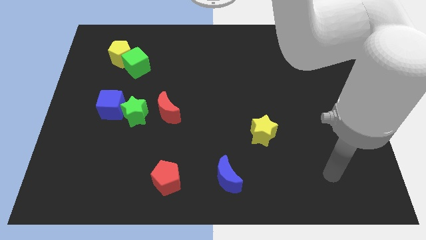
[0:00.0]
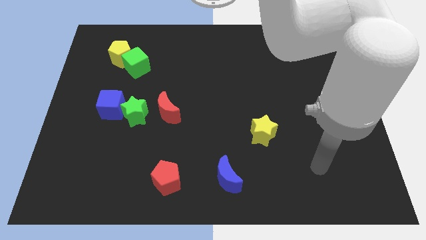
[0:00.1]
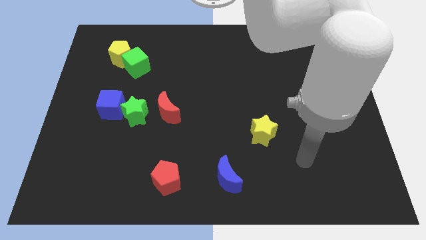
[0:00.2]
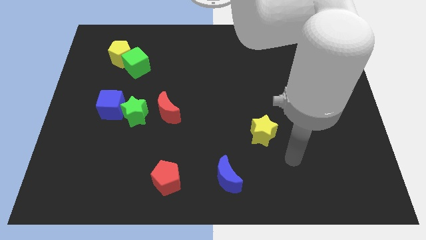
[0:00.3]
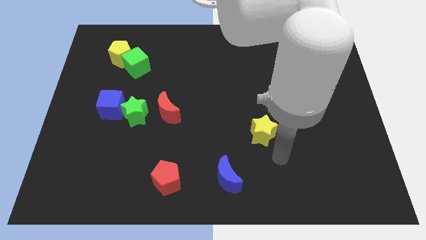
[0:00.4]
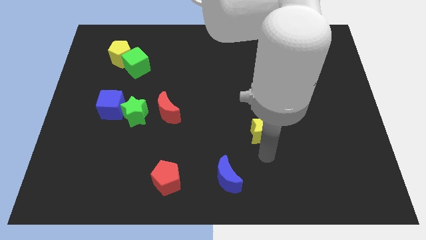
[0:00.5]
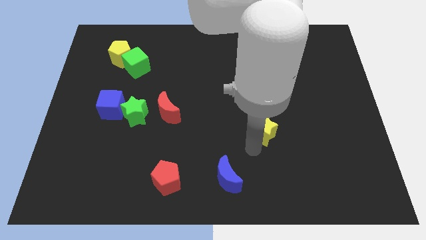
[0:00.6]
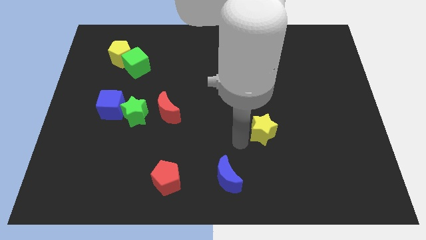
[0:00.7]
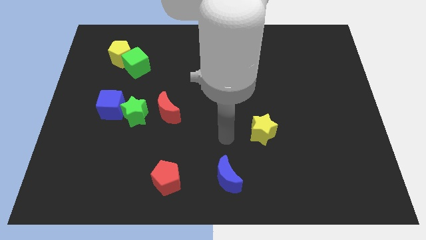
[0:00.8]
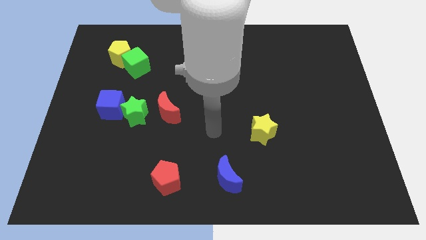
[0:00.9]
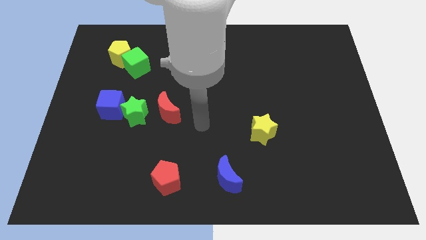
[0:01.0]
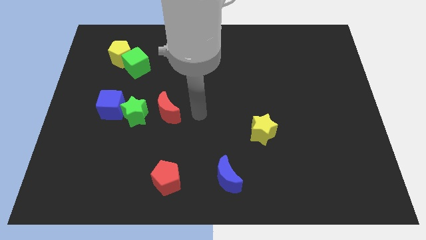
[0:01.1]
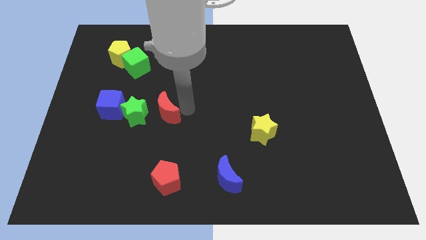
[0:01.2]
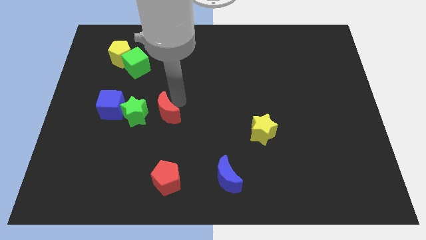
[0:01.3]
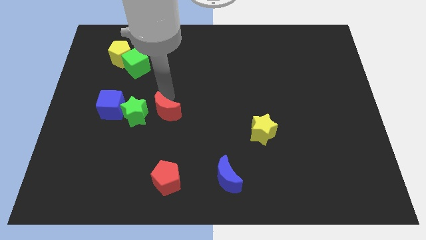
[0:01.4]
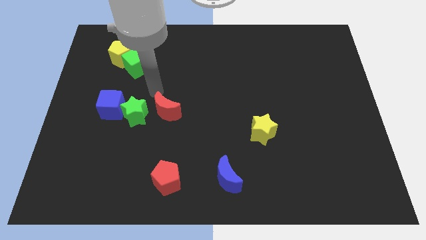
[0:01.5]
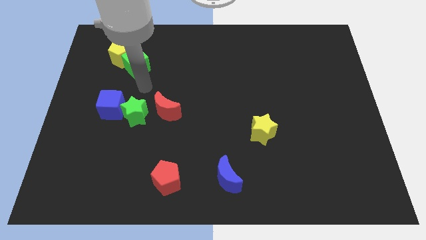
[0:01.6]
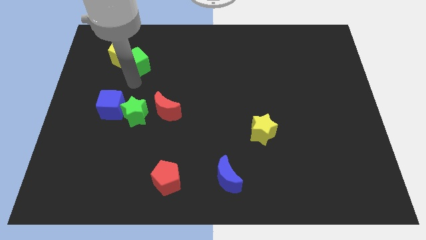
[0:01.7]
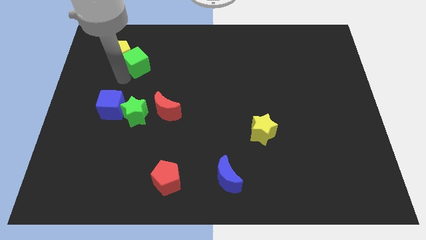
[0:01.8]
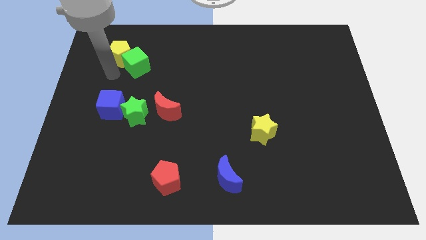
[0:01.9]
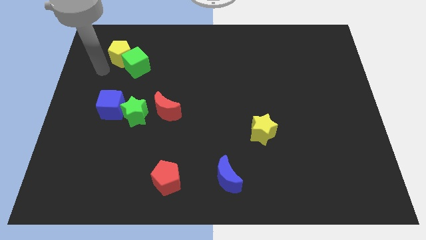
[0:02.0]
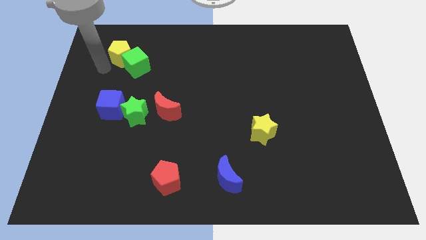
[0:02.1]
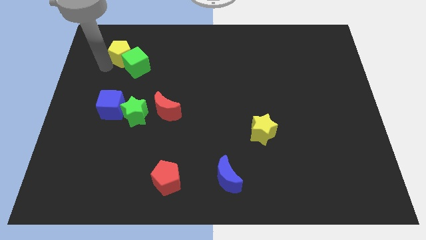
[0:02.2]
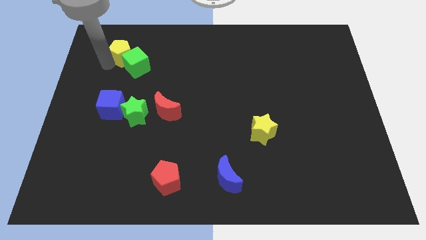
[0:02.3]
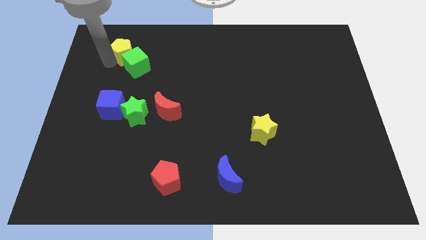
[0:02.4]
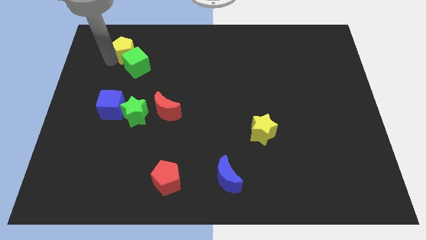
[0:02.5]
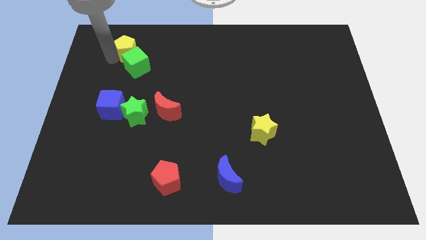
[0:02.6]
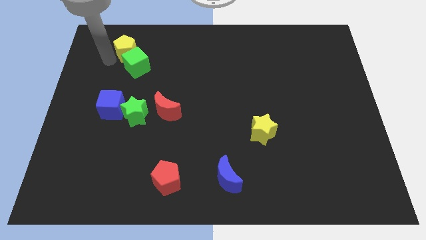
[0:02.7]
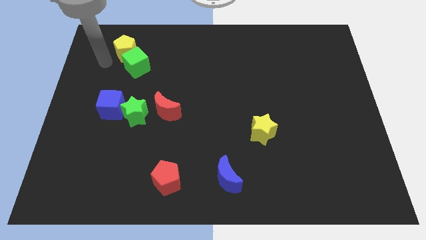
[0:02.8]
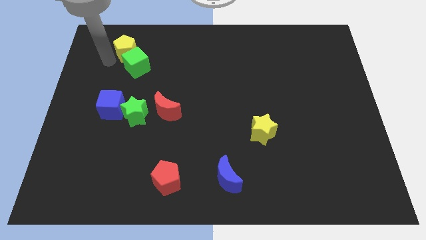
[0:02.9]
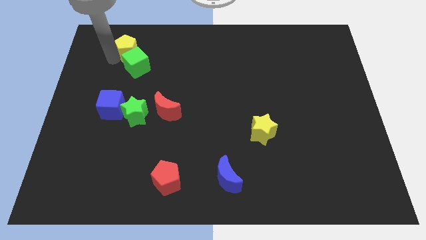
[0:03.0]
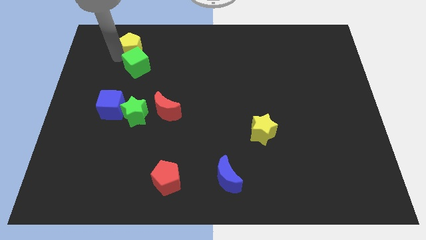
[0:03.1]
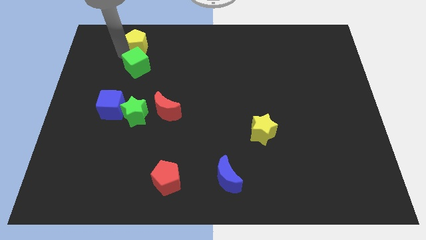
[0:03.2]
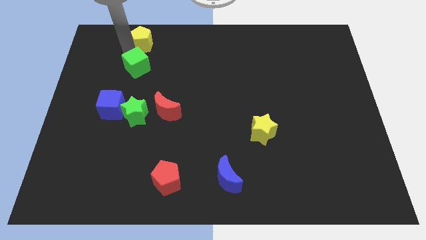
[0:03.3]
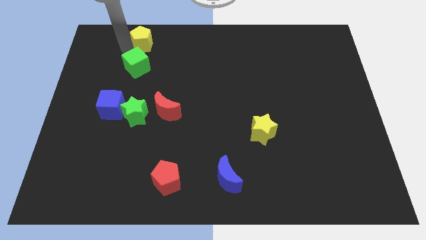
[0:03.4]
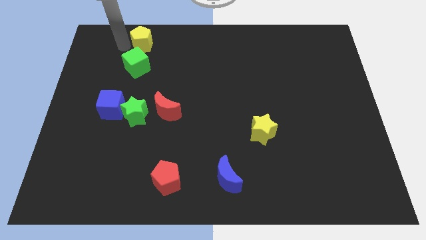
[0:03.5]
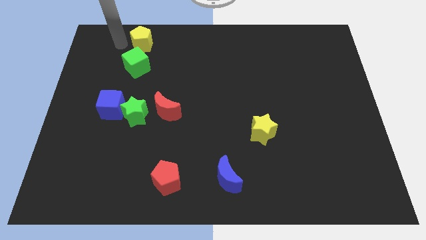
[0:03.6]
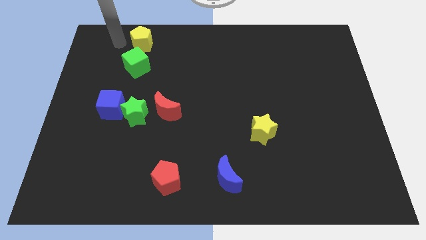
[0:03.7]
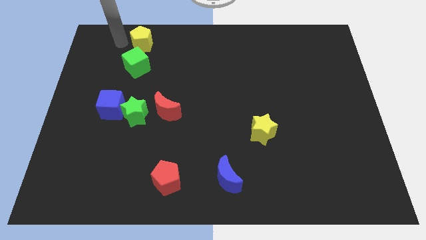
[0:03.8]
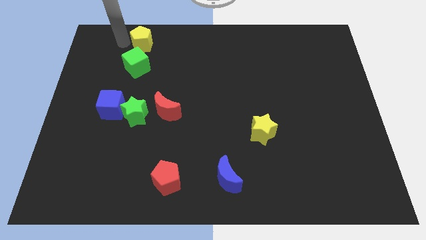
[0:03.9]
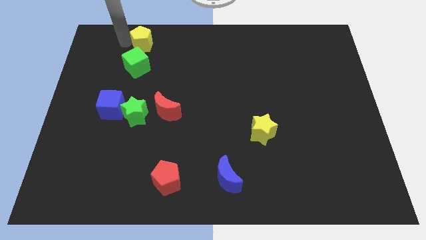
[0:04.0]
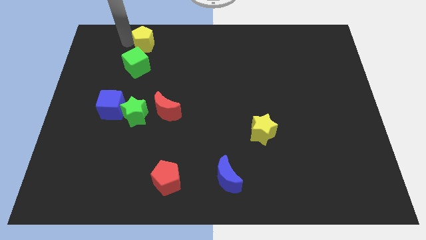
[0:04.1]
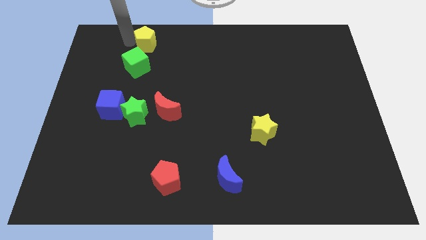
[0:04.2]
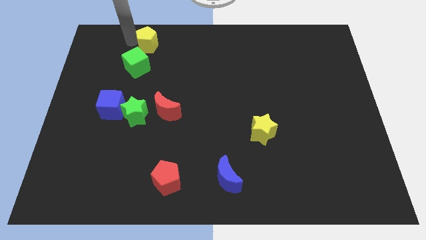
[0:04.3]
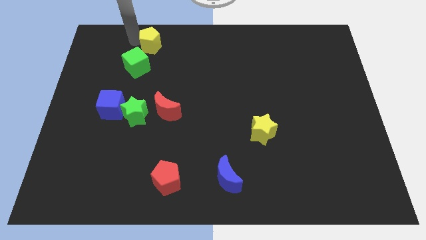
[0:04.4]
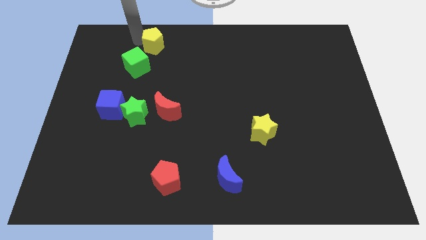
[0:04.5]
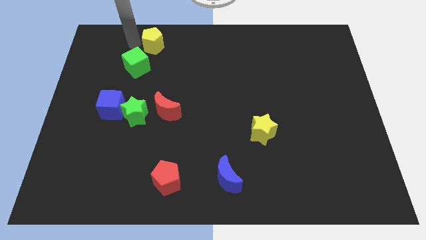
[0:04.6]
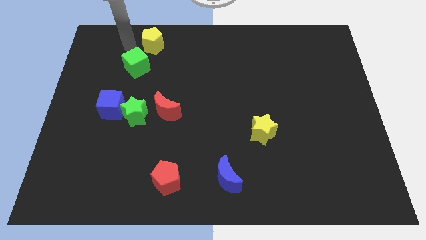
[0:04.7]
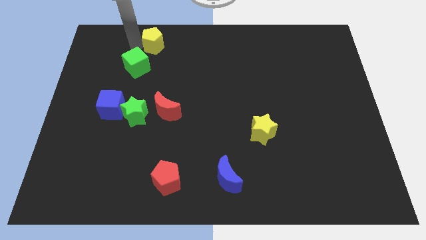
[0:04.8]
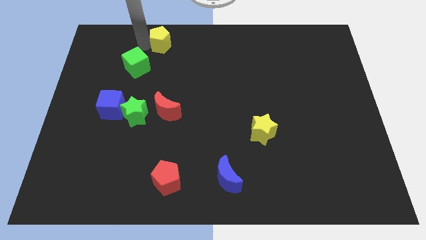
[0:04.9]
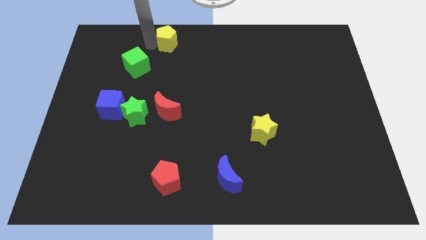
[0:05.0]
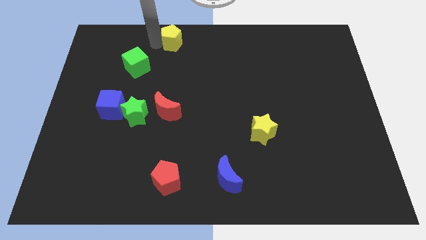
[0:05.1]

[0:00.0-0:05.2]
put the yellow pentagon to the top side

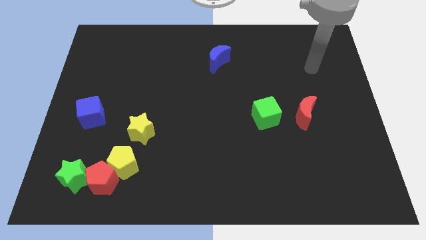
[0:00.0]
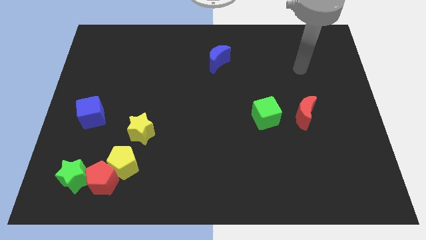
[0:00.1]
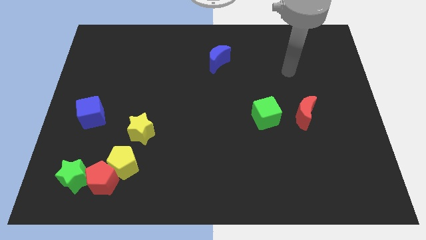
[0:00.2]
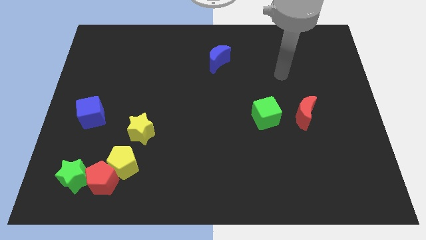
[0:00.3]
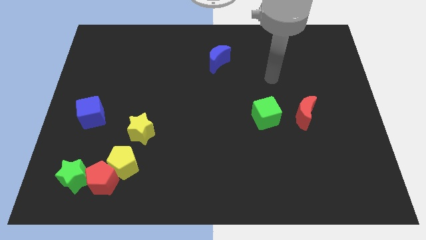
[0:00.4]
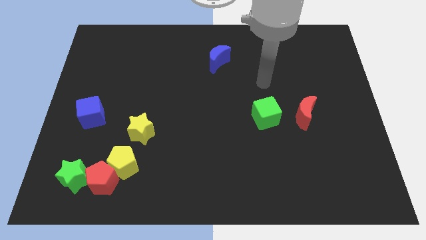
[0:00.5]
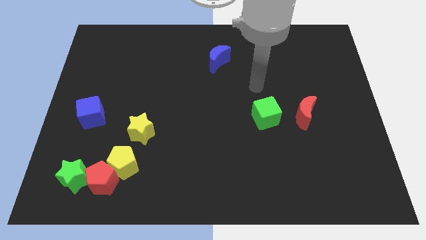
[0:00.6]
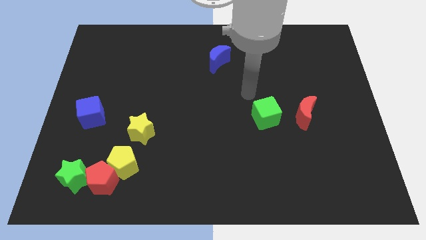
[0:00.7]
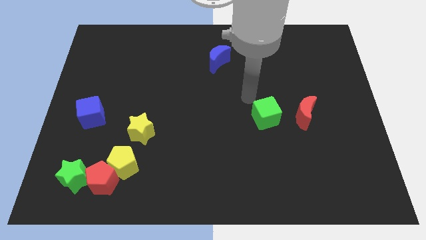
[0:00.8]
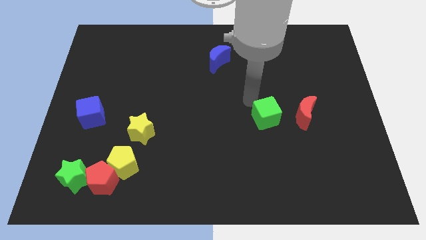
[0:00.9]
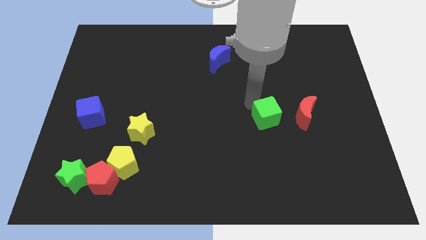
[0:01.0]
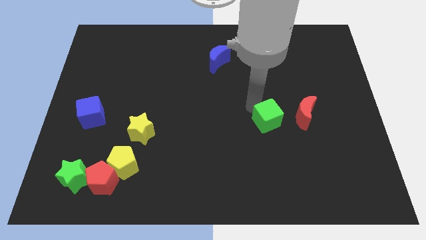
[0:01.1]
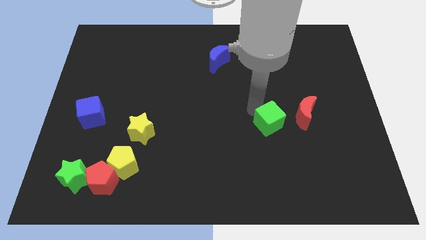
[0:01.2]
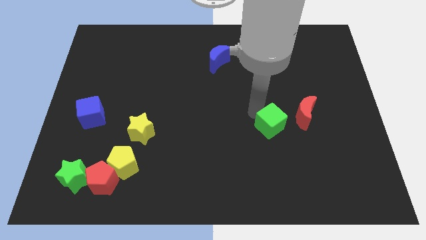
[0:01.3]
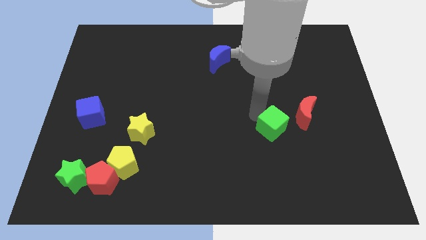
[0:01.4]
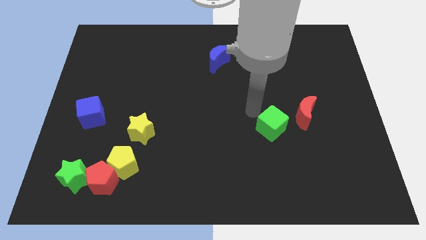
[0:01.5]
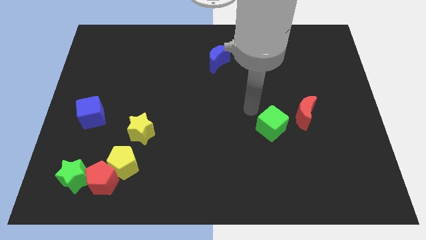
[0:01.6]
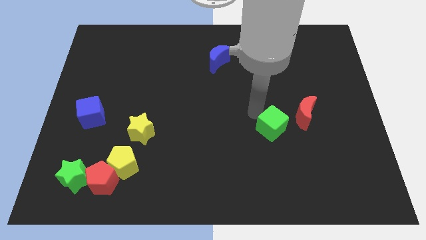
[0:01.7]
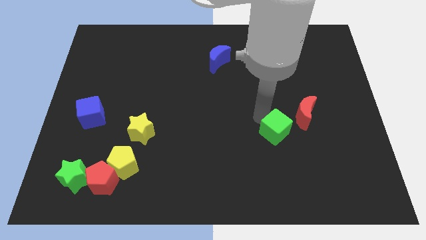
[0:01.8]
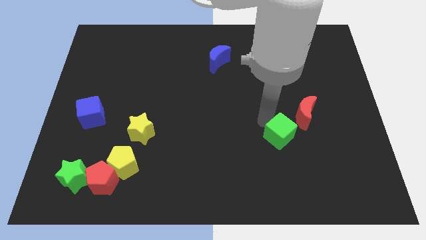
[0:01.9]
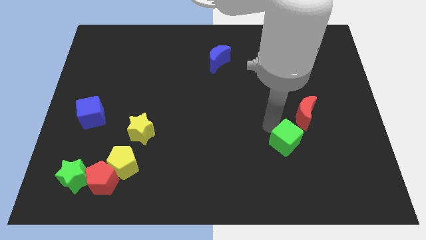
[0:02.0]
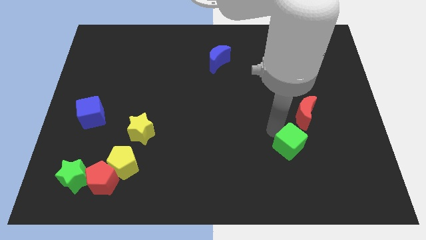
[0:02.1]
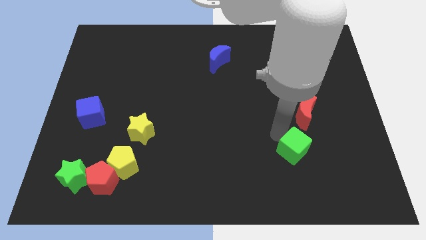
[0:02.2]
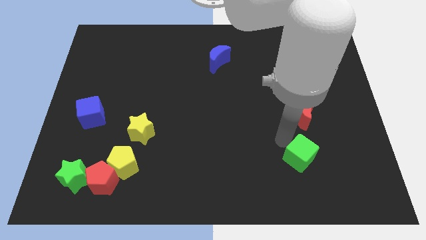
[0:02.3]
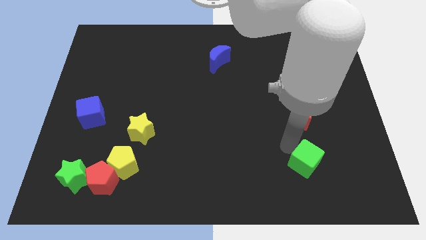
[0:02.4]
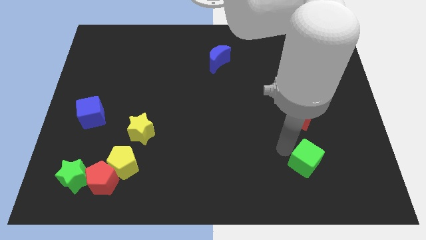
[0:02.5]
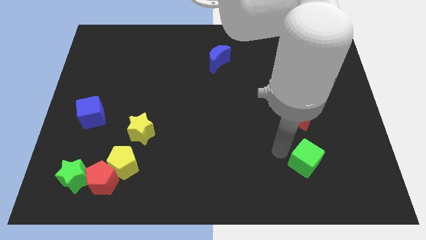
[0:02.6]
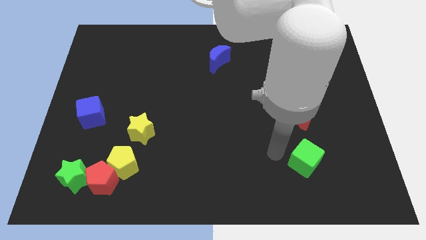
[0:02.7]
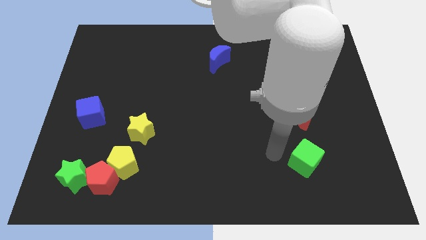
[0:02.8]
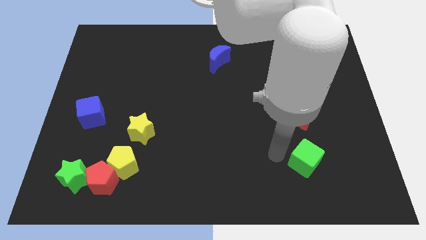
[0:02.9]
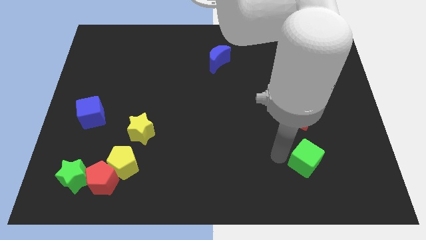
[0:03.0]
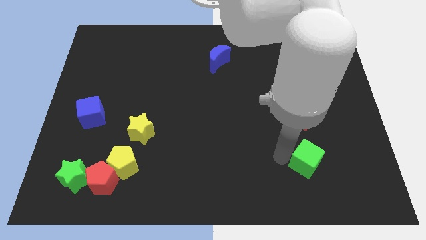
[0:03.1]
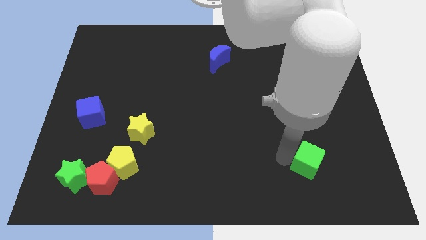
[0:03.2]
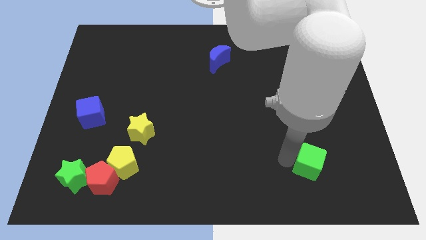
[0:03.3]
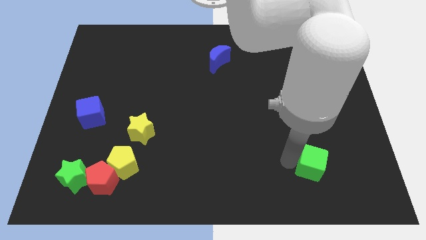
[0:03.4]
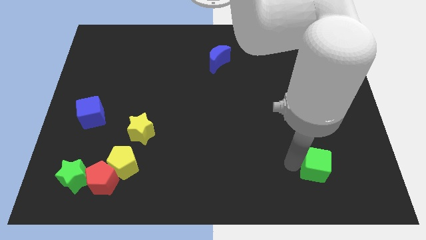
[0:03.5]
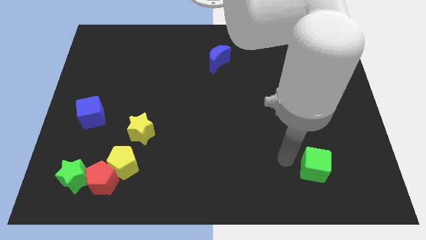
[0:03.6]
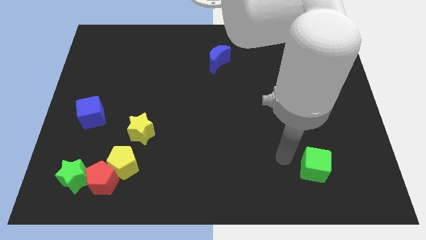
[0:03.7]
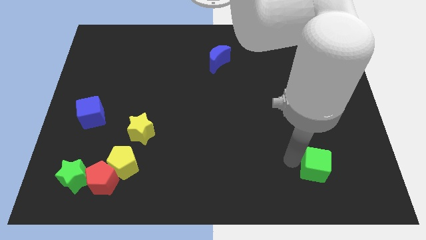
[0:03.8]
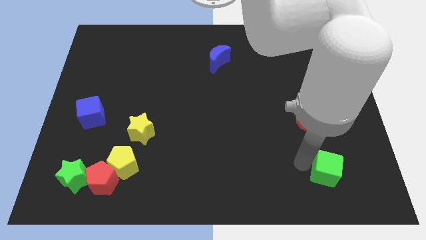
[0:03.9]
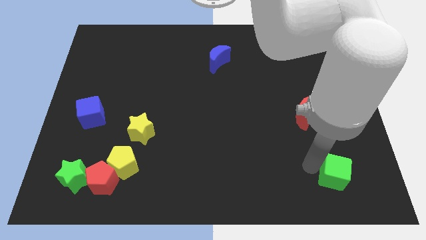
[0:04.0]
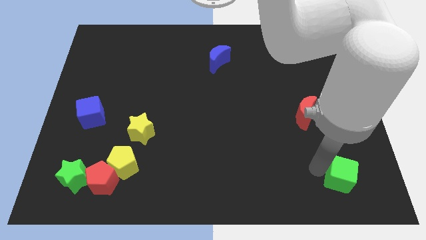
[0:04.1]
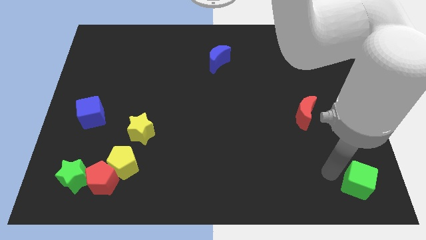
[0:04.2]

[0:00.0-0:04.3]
move the green cube to the bottom right corner
